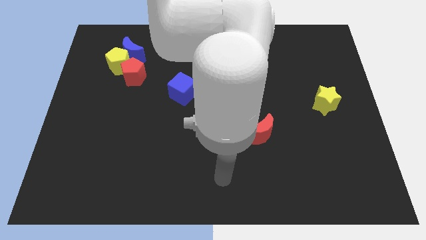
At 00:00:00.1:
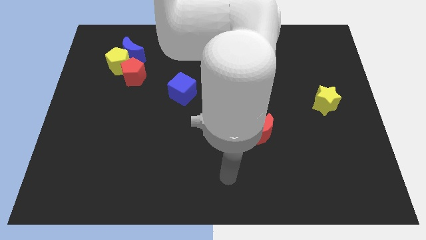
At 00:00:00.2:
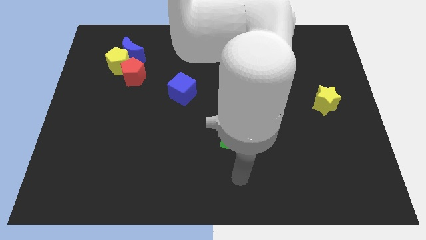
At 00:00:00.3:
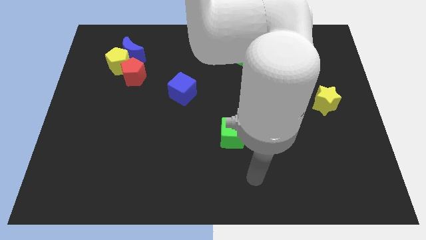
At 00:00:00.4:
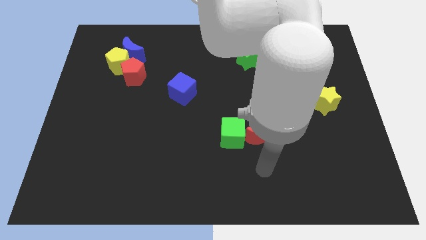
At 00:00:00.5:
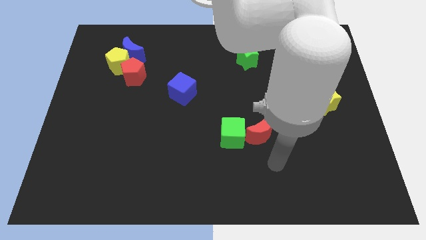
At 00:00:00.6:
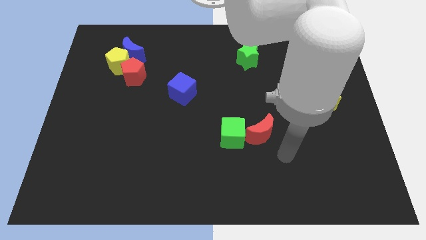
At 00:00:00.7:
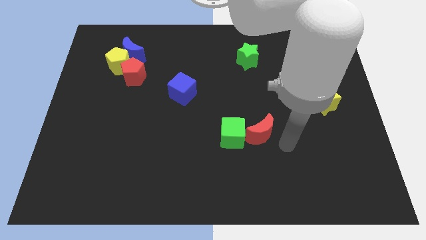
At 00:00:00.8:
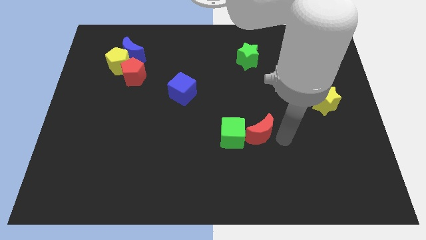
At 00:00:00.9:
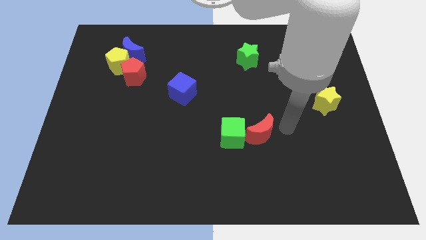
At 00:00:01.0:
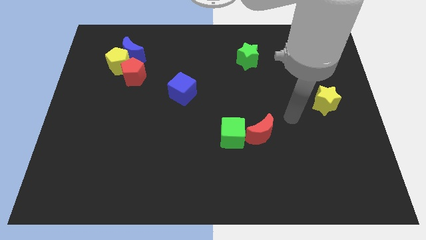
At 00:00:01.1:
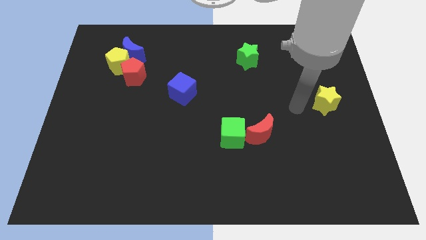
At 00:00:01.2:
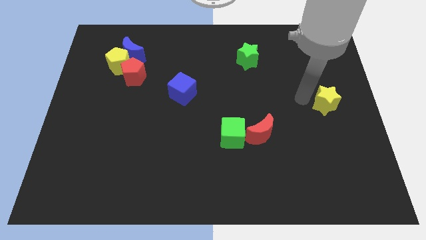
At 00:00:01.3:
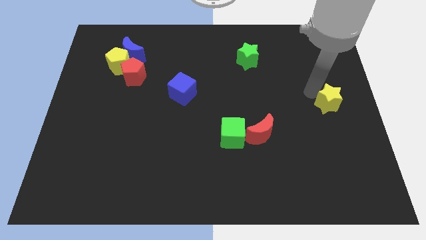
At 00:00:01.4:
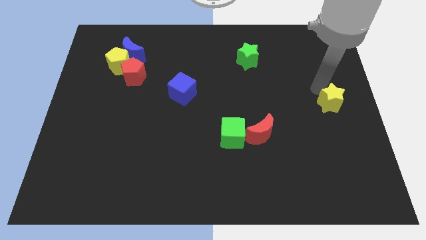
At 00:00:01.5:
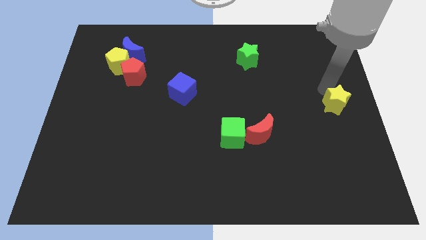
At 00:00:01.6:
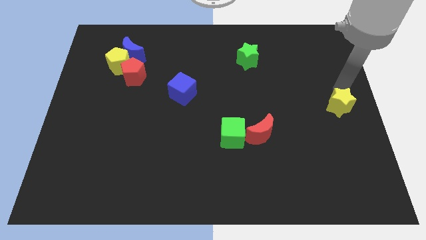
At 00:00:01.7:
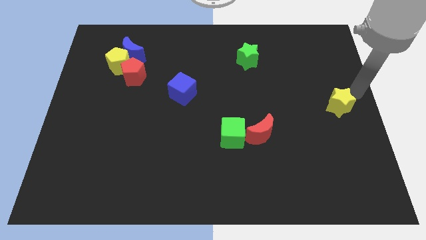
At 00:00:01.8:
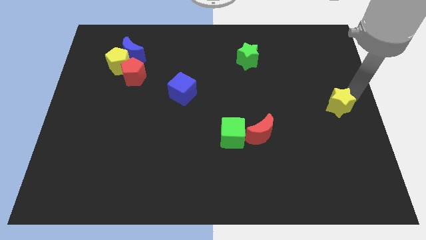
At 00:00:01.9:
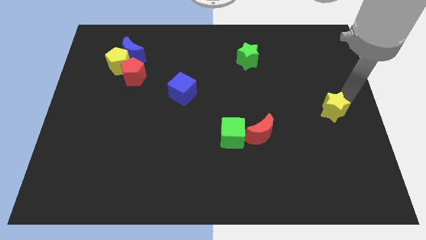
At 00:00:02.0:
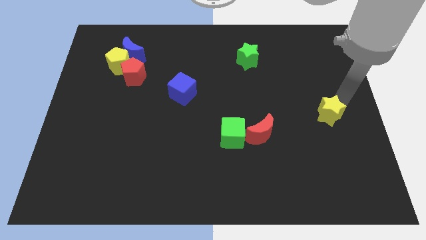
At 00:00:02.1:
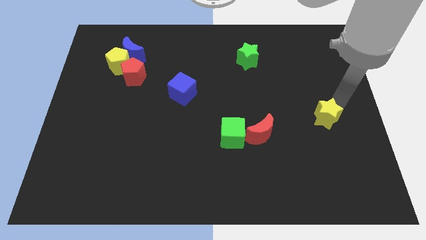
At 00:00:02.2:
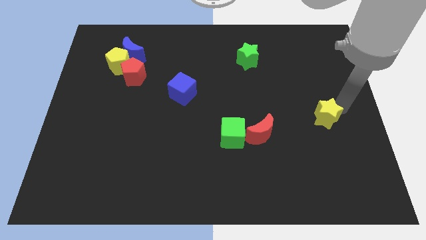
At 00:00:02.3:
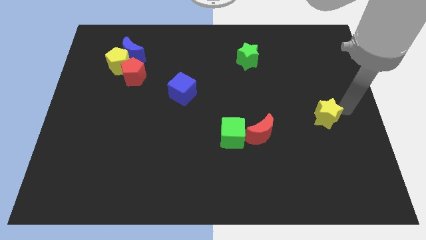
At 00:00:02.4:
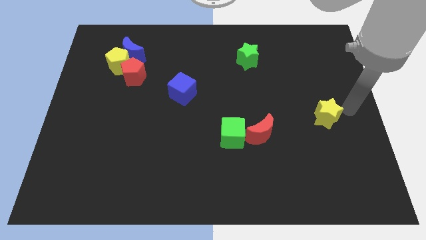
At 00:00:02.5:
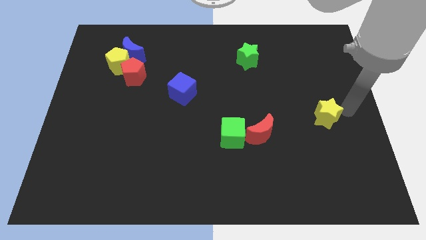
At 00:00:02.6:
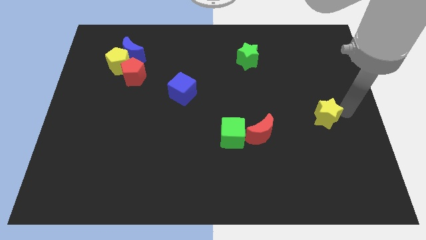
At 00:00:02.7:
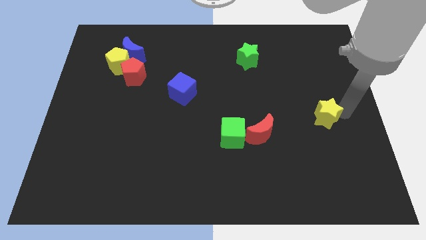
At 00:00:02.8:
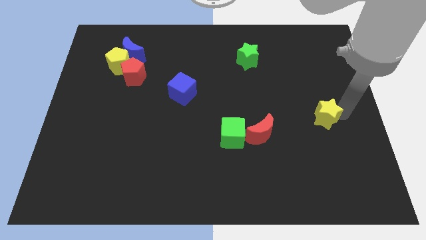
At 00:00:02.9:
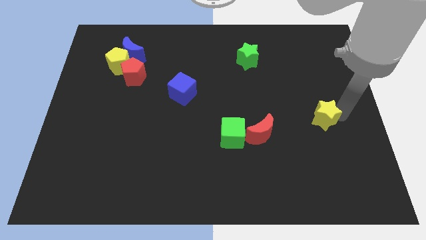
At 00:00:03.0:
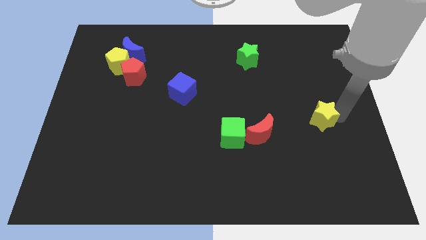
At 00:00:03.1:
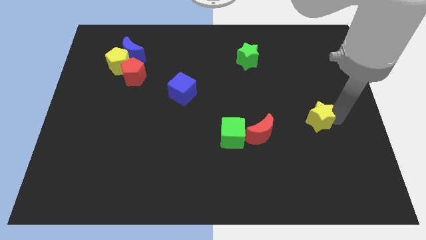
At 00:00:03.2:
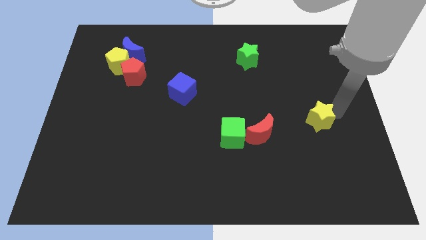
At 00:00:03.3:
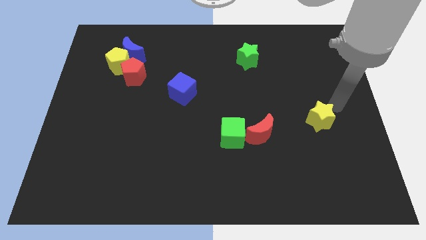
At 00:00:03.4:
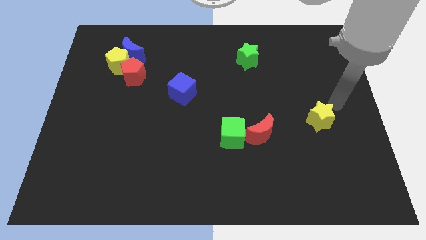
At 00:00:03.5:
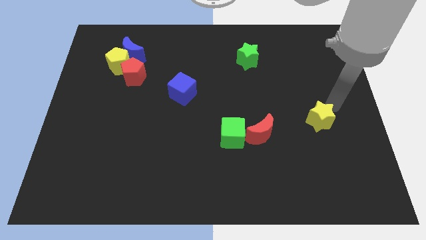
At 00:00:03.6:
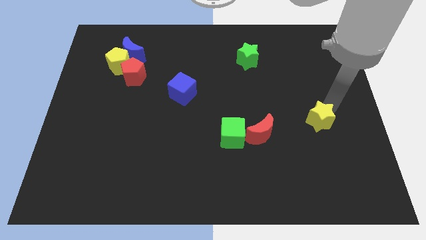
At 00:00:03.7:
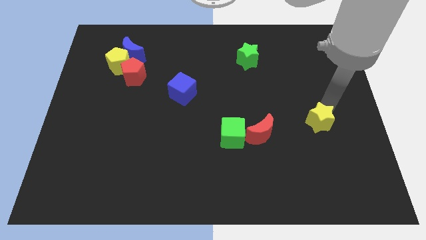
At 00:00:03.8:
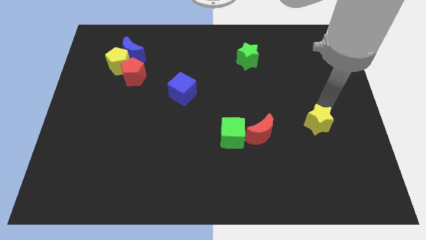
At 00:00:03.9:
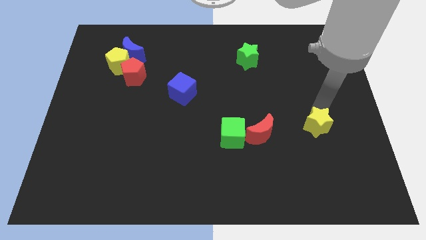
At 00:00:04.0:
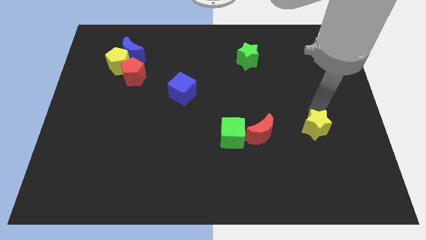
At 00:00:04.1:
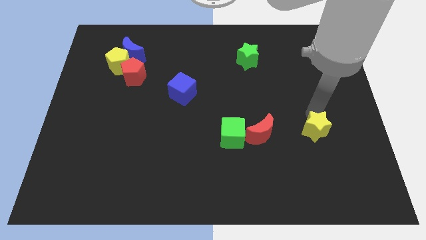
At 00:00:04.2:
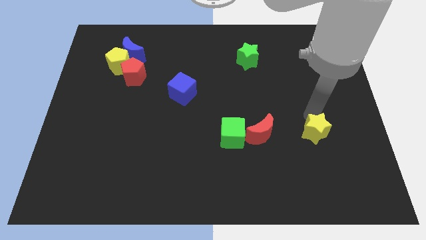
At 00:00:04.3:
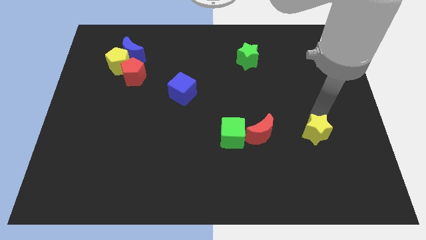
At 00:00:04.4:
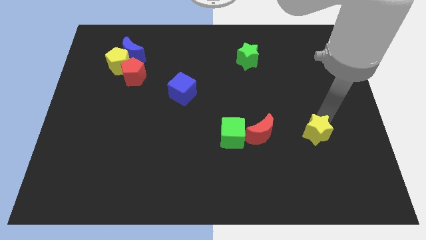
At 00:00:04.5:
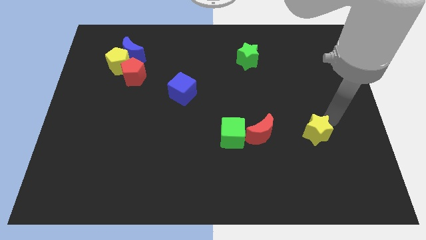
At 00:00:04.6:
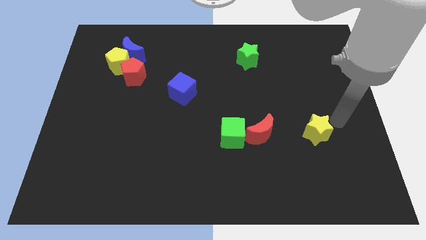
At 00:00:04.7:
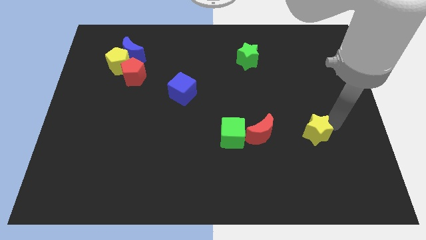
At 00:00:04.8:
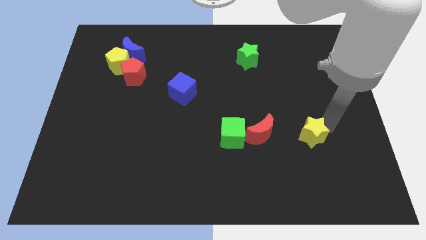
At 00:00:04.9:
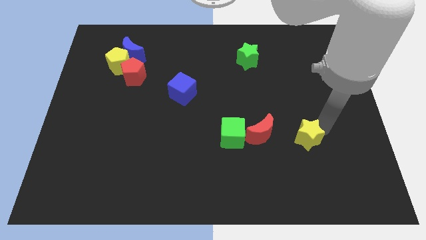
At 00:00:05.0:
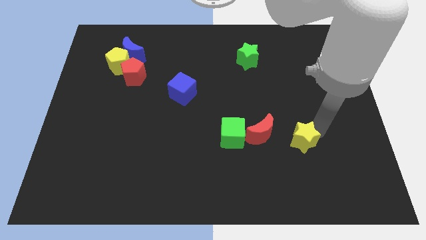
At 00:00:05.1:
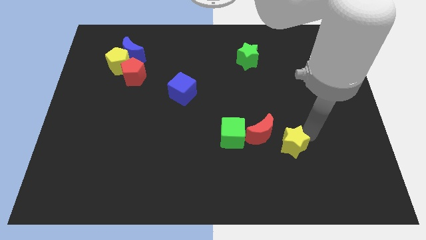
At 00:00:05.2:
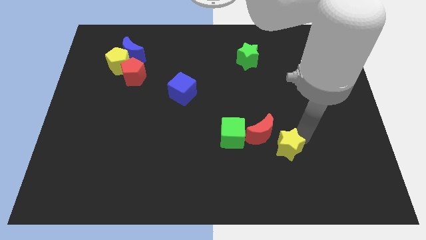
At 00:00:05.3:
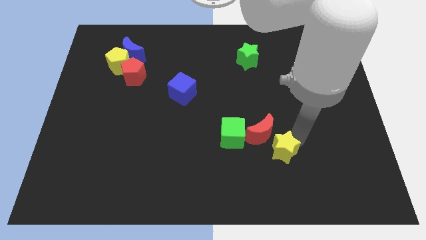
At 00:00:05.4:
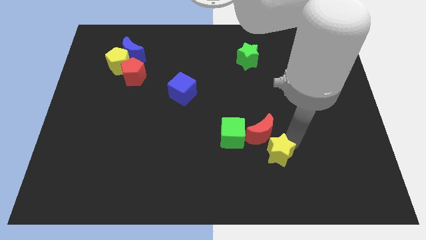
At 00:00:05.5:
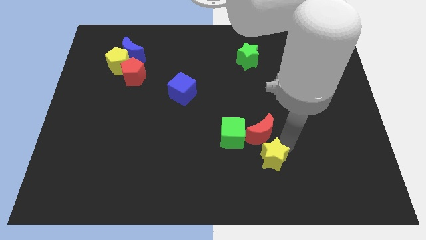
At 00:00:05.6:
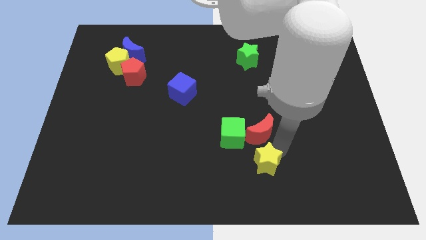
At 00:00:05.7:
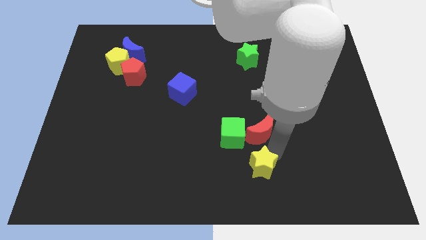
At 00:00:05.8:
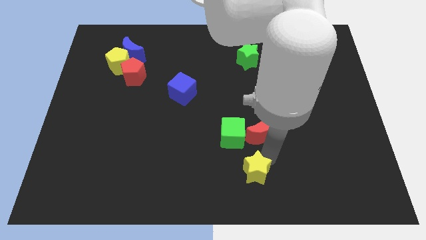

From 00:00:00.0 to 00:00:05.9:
push the yellow star to the bottom side

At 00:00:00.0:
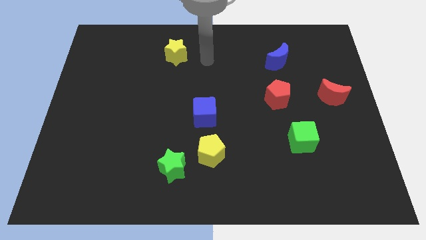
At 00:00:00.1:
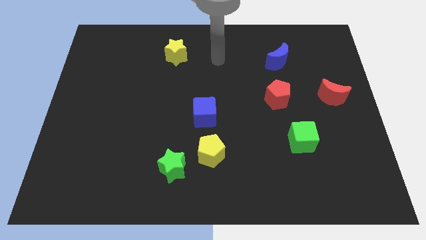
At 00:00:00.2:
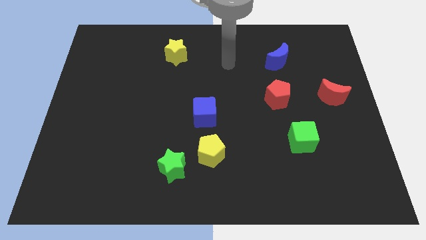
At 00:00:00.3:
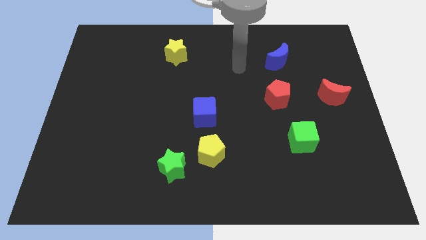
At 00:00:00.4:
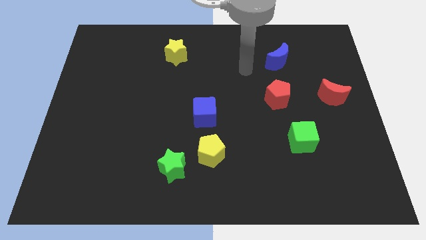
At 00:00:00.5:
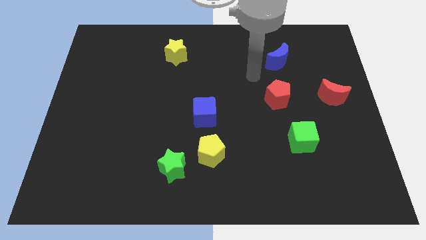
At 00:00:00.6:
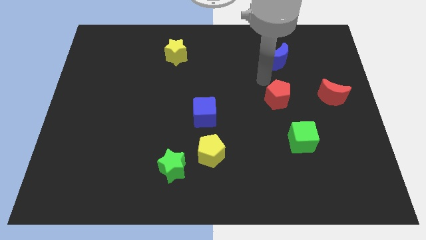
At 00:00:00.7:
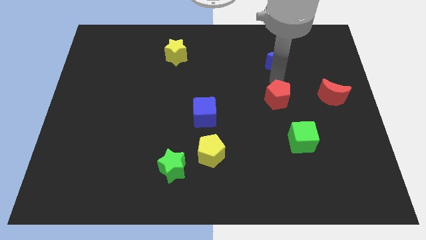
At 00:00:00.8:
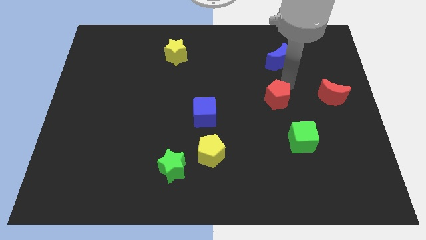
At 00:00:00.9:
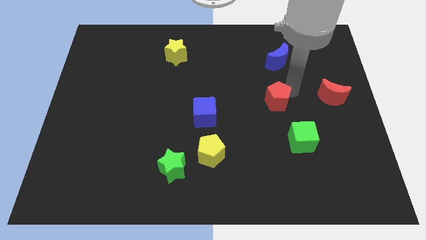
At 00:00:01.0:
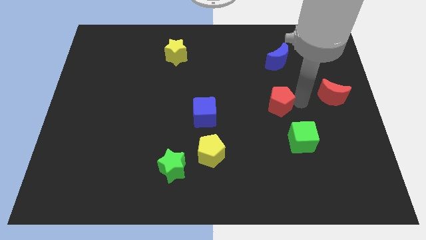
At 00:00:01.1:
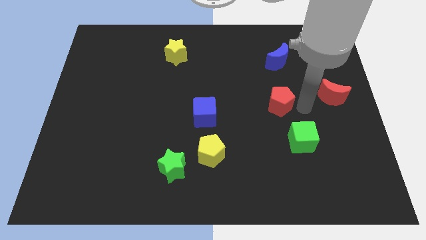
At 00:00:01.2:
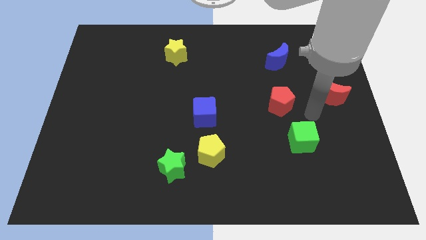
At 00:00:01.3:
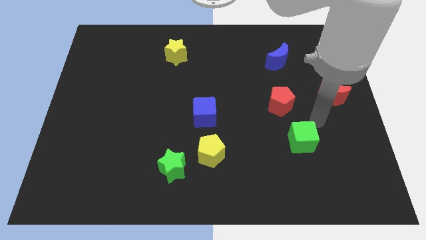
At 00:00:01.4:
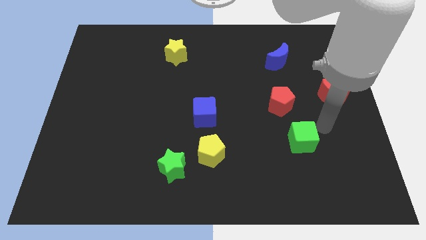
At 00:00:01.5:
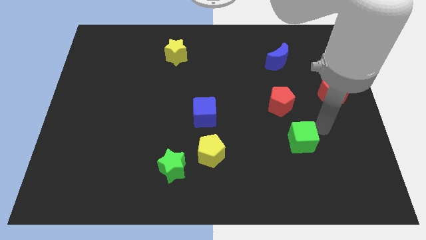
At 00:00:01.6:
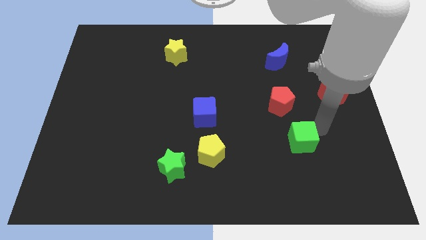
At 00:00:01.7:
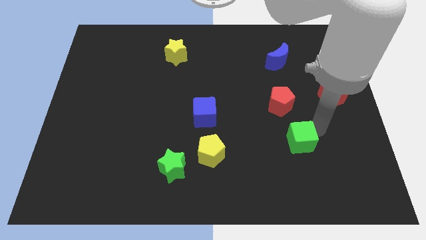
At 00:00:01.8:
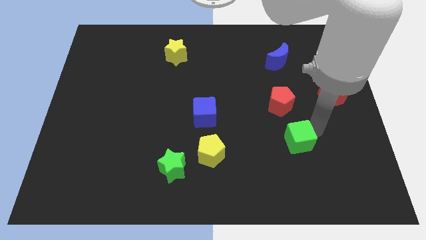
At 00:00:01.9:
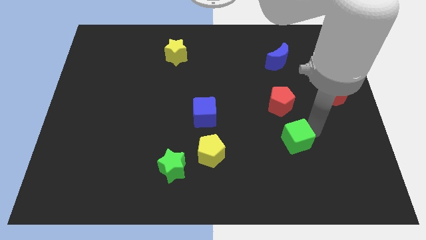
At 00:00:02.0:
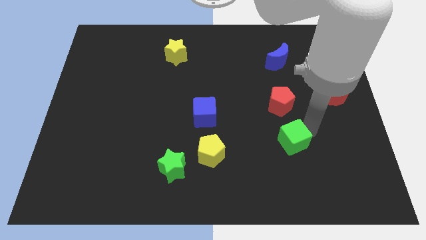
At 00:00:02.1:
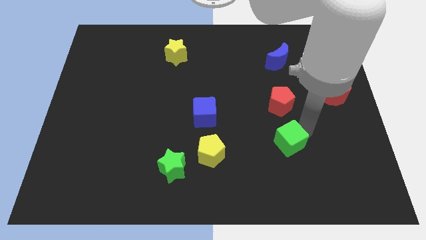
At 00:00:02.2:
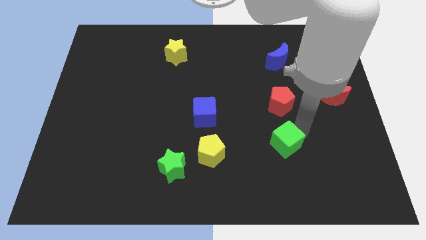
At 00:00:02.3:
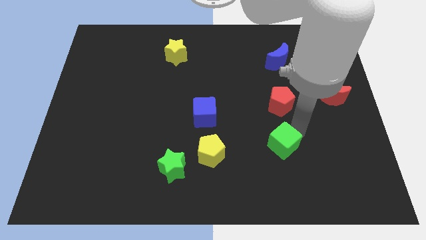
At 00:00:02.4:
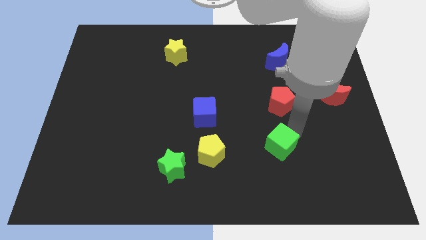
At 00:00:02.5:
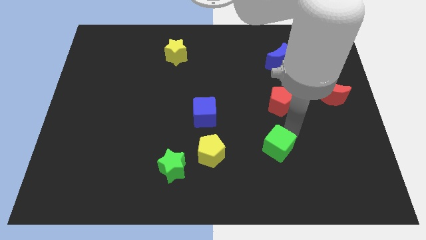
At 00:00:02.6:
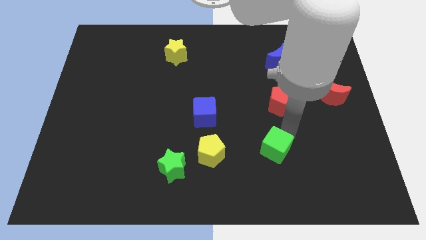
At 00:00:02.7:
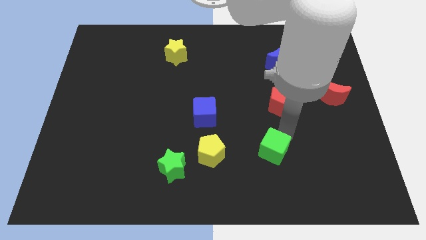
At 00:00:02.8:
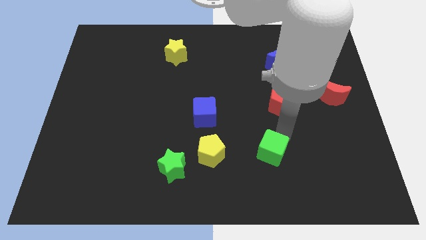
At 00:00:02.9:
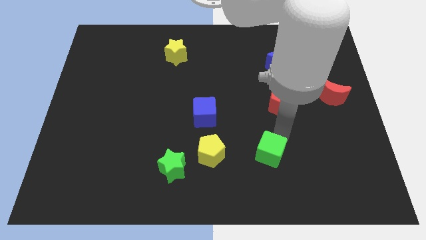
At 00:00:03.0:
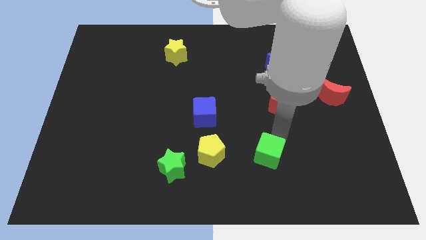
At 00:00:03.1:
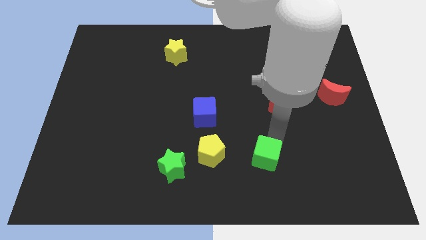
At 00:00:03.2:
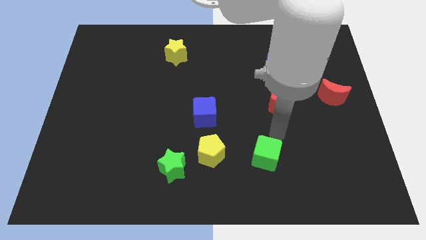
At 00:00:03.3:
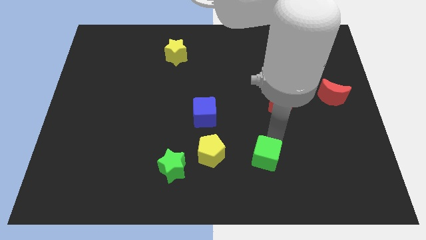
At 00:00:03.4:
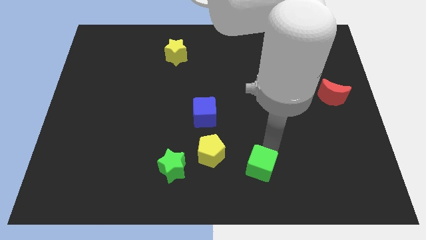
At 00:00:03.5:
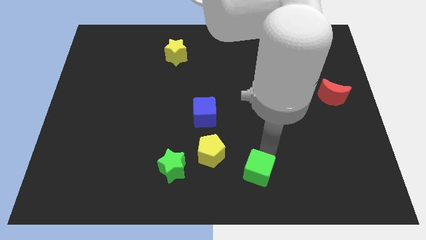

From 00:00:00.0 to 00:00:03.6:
slide the green cube to the bottom side
